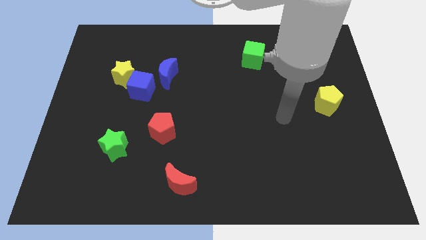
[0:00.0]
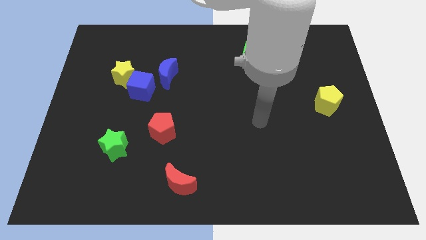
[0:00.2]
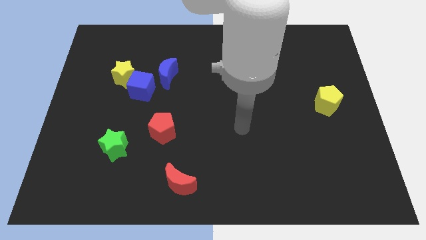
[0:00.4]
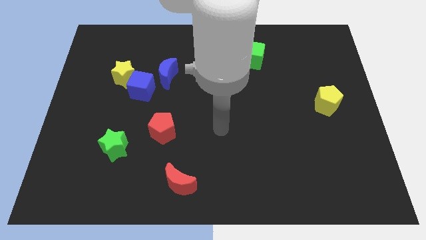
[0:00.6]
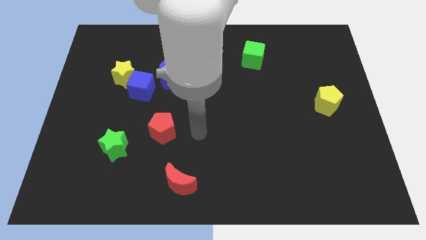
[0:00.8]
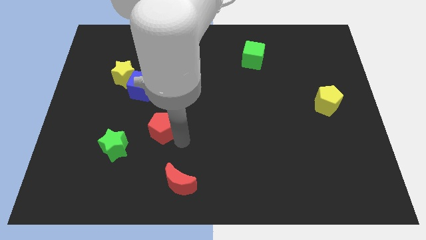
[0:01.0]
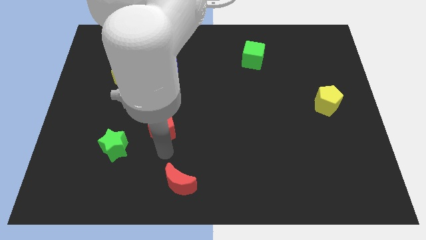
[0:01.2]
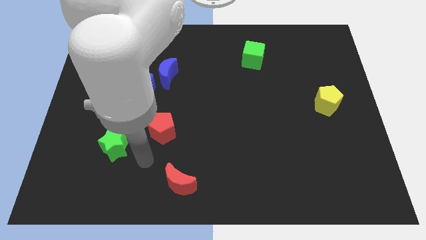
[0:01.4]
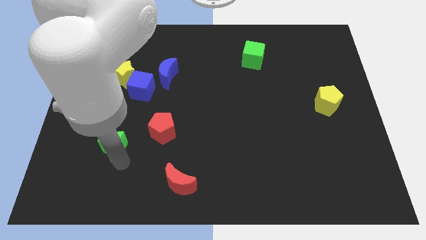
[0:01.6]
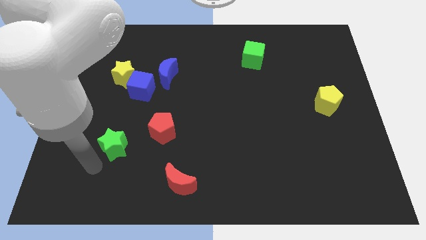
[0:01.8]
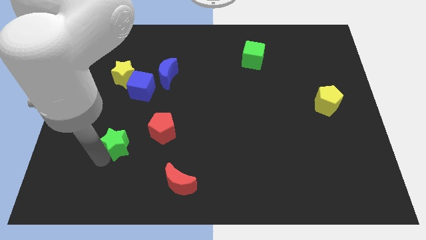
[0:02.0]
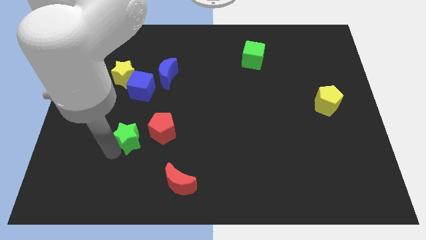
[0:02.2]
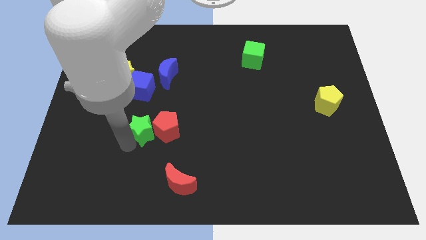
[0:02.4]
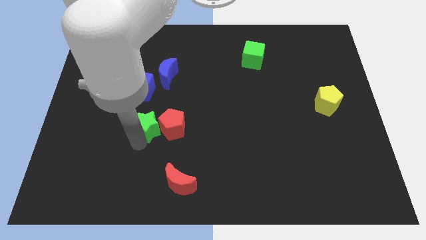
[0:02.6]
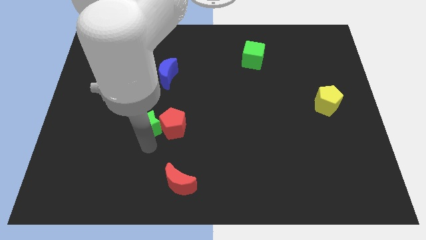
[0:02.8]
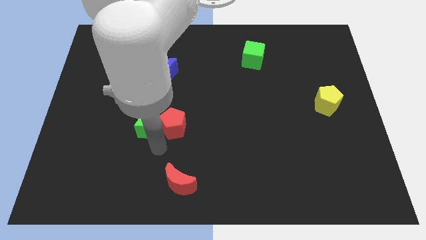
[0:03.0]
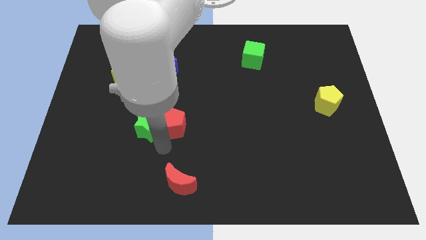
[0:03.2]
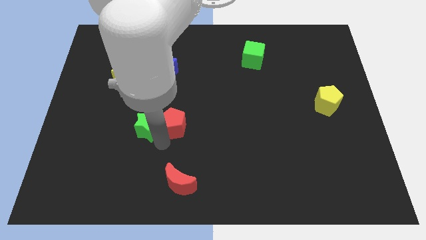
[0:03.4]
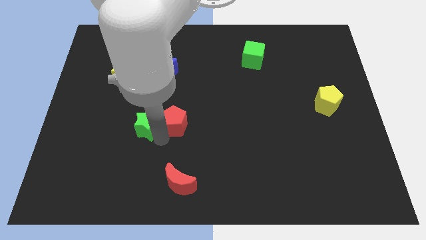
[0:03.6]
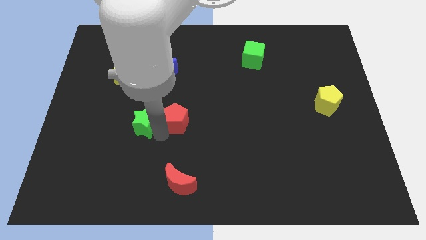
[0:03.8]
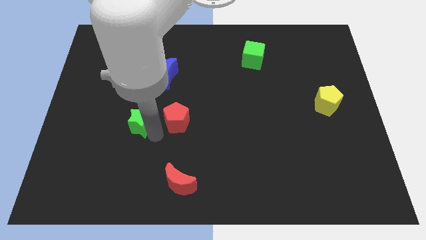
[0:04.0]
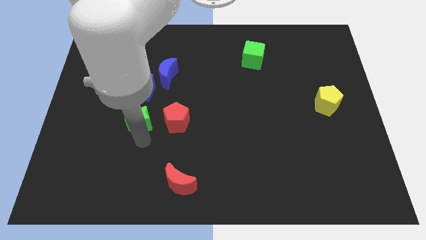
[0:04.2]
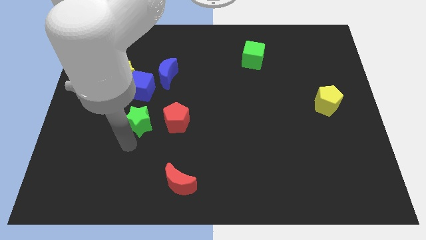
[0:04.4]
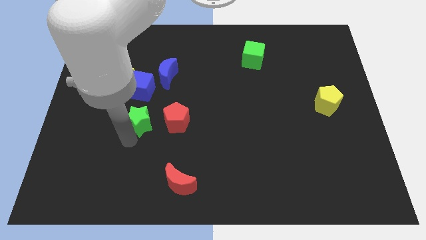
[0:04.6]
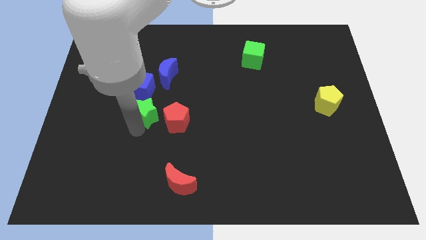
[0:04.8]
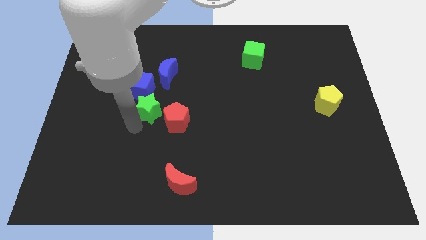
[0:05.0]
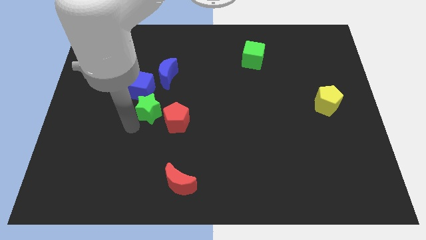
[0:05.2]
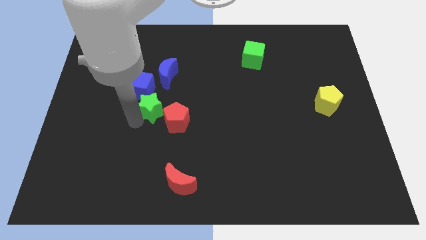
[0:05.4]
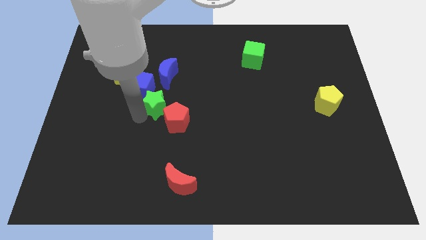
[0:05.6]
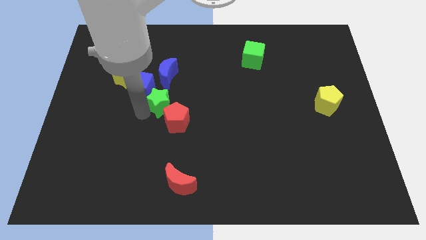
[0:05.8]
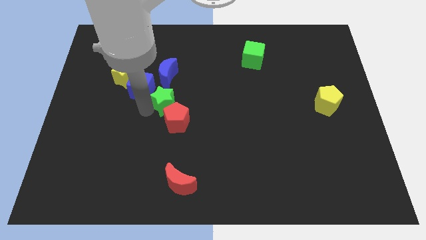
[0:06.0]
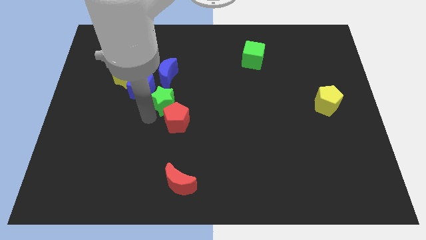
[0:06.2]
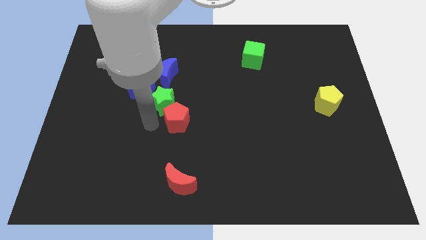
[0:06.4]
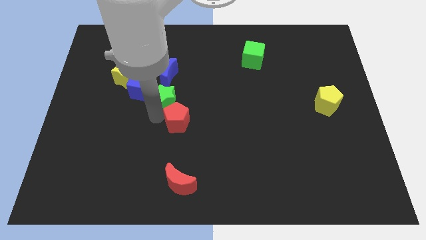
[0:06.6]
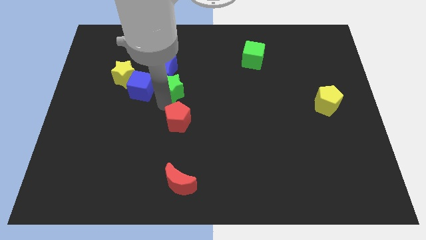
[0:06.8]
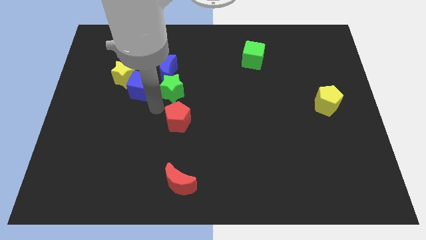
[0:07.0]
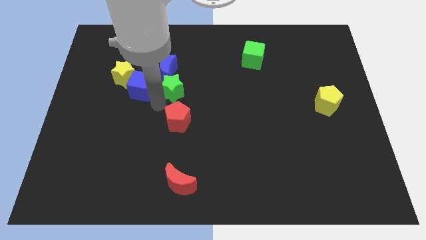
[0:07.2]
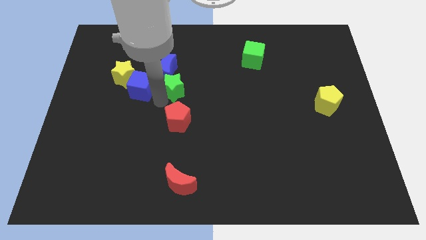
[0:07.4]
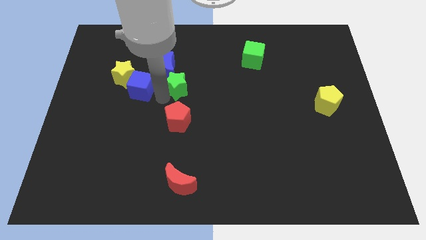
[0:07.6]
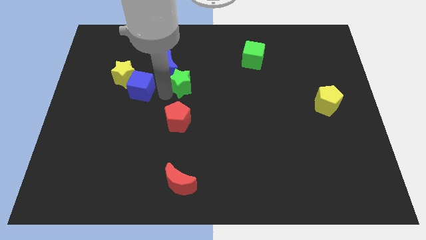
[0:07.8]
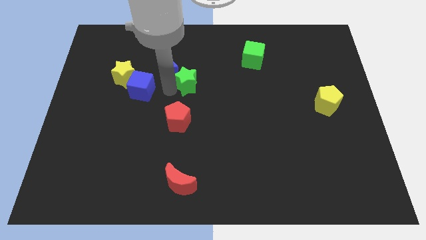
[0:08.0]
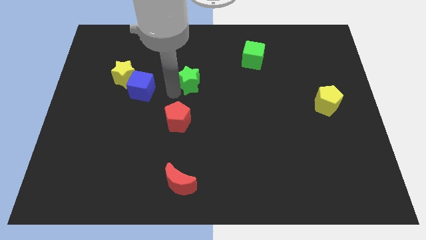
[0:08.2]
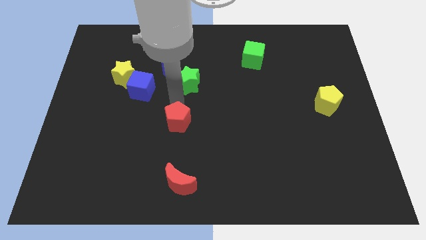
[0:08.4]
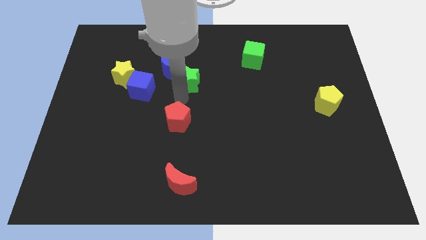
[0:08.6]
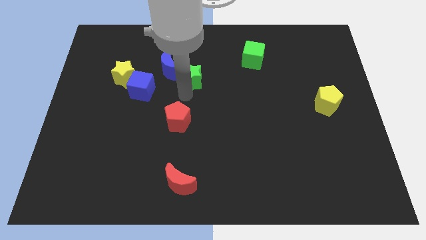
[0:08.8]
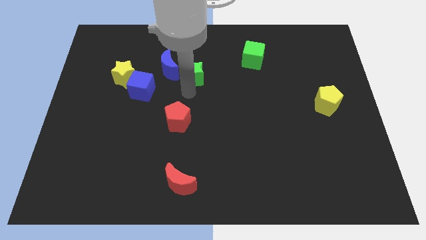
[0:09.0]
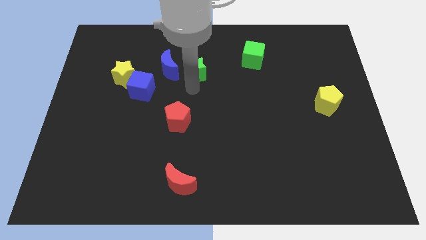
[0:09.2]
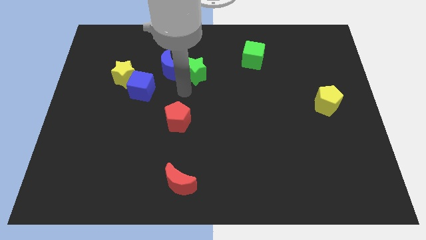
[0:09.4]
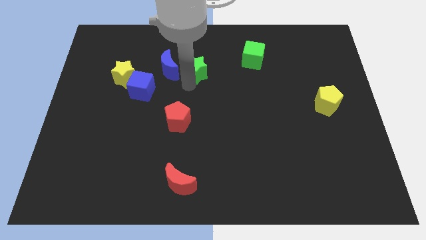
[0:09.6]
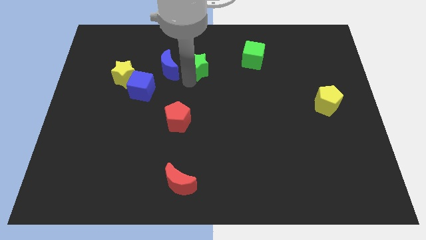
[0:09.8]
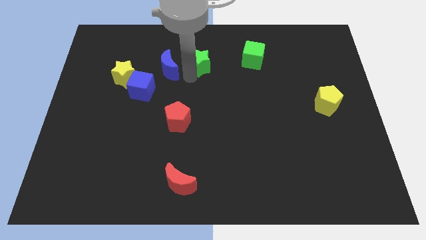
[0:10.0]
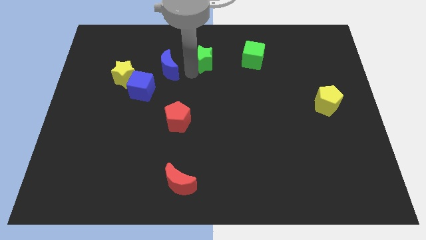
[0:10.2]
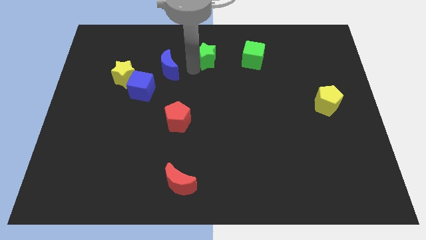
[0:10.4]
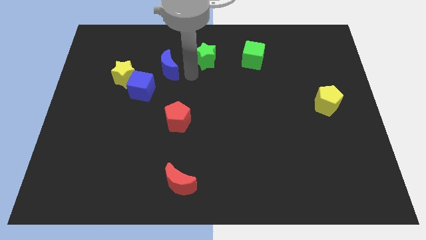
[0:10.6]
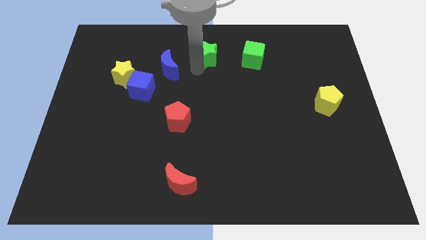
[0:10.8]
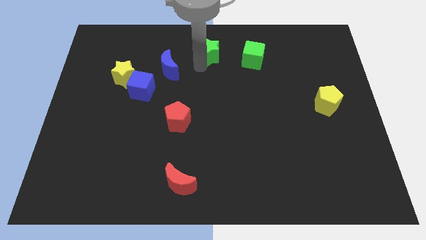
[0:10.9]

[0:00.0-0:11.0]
put the green star to the top side

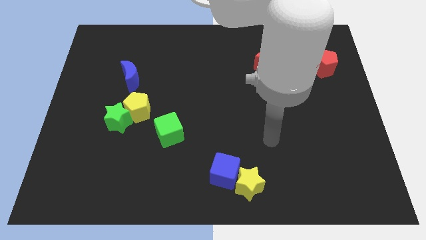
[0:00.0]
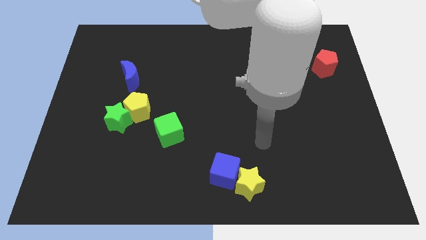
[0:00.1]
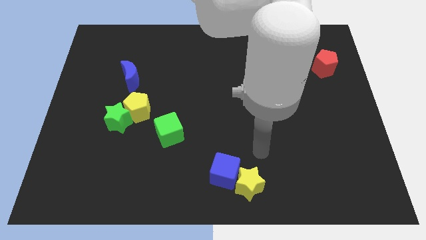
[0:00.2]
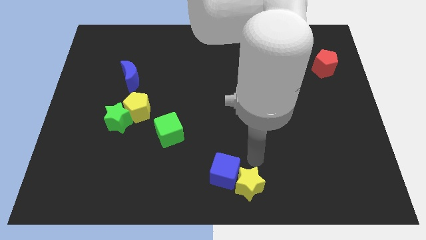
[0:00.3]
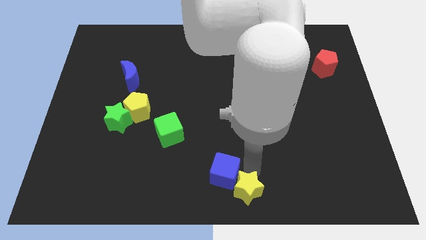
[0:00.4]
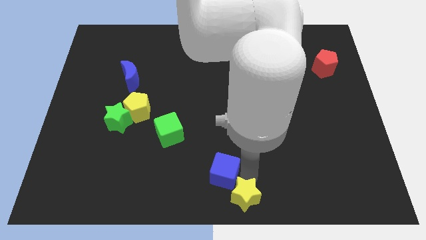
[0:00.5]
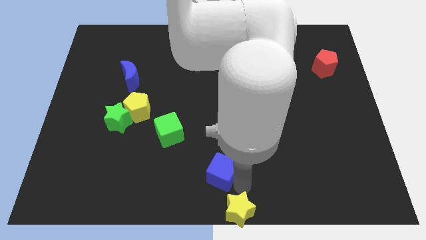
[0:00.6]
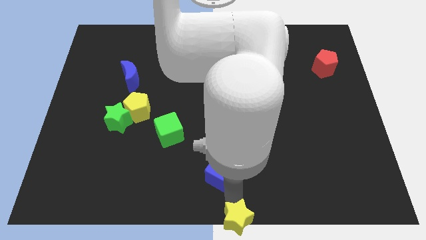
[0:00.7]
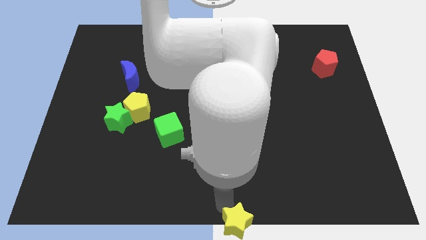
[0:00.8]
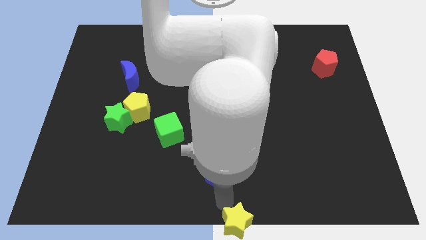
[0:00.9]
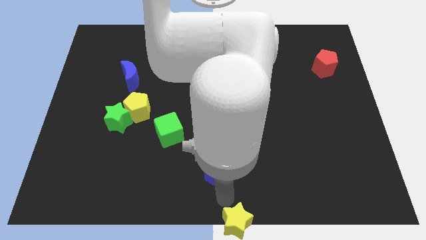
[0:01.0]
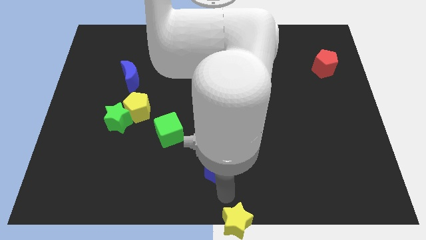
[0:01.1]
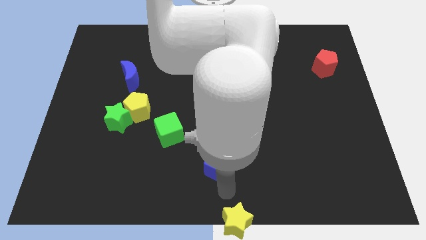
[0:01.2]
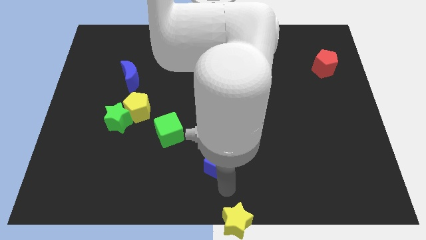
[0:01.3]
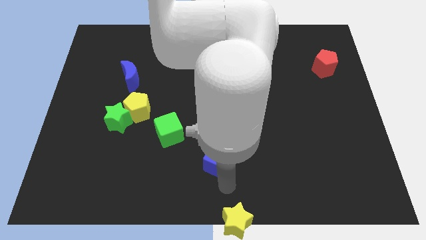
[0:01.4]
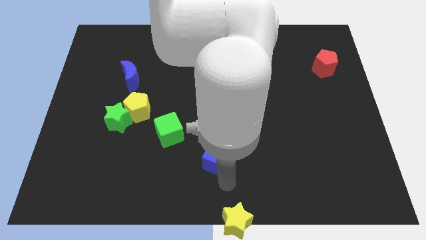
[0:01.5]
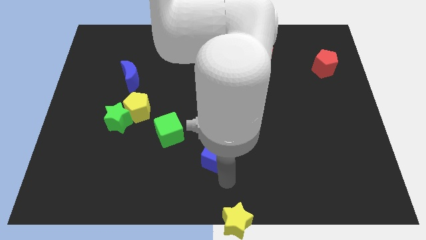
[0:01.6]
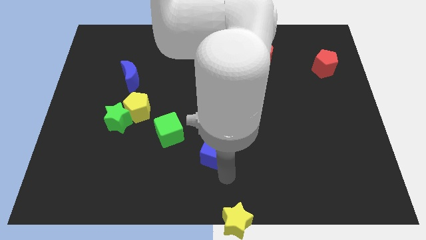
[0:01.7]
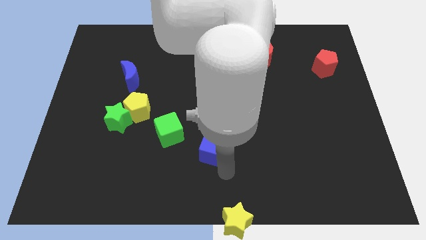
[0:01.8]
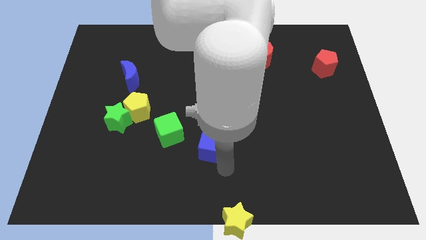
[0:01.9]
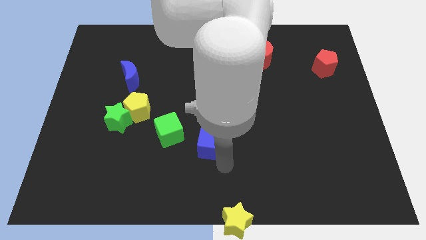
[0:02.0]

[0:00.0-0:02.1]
move the blue cube to the middle of the board
